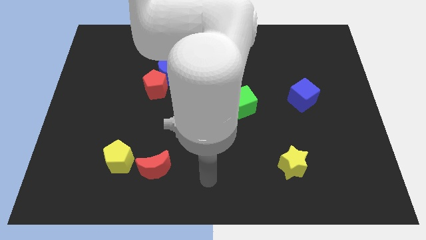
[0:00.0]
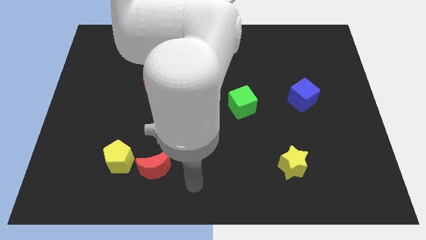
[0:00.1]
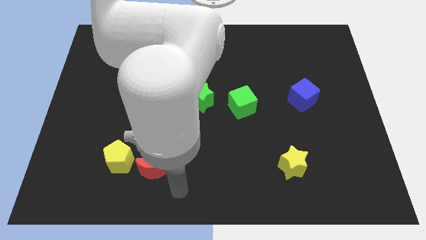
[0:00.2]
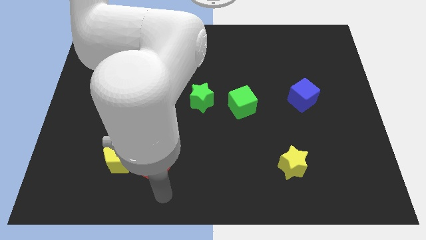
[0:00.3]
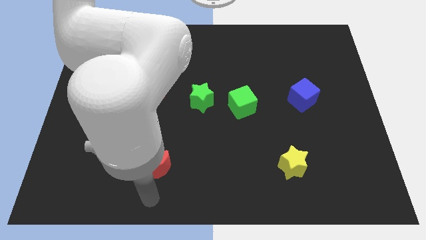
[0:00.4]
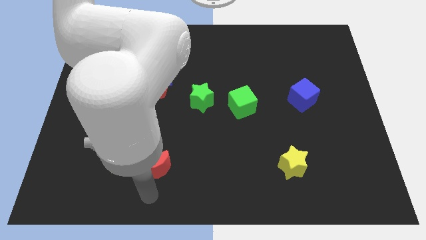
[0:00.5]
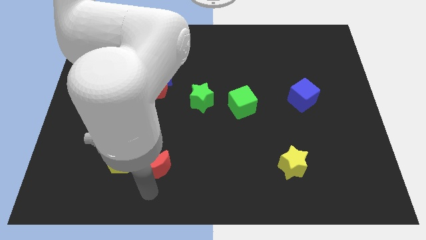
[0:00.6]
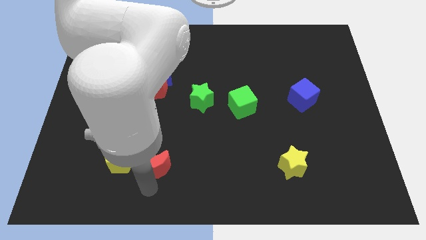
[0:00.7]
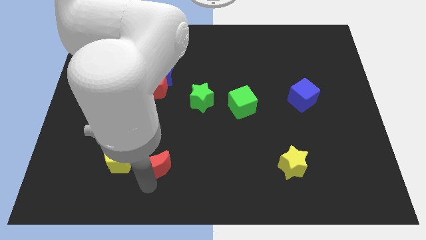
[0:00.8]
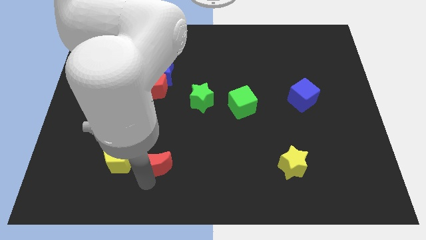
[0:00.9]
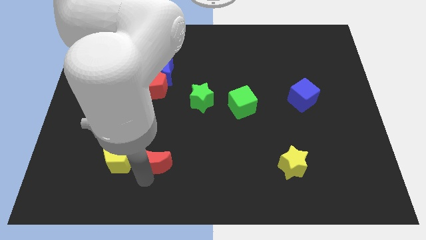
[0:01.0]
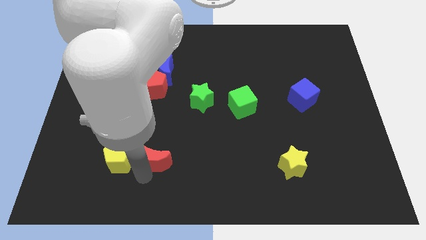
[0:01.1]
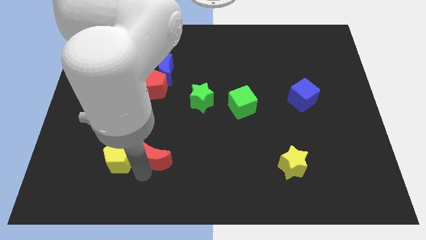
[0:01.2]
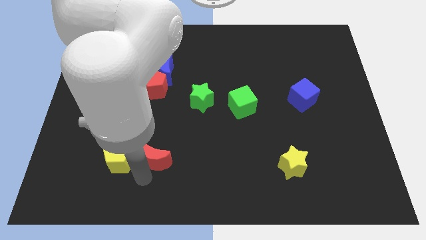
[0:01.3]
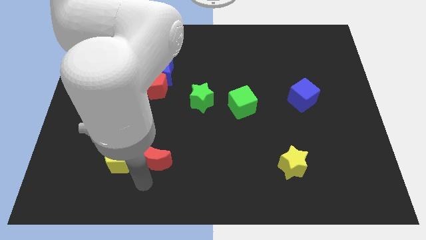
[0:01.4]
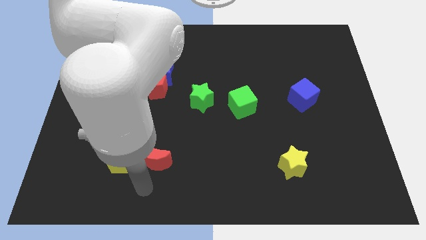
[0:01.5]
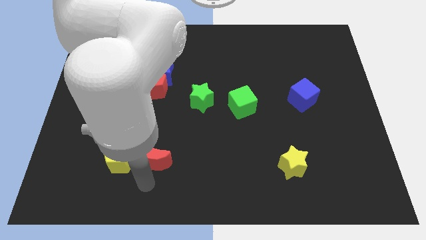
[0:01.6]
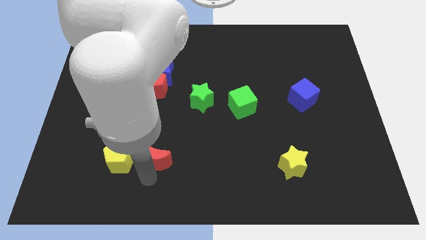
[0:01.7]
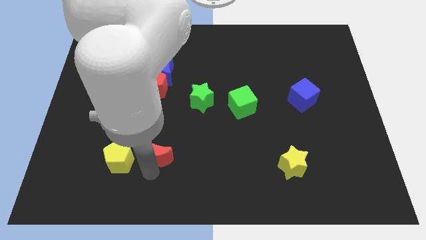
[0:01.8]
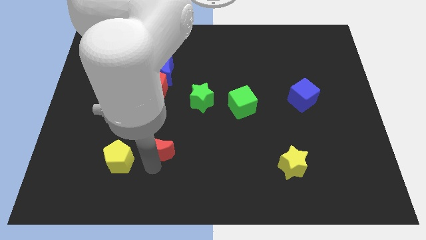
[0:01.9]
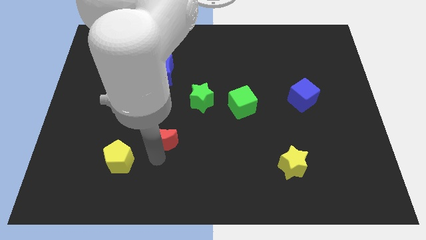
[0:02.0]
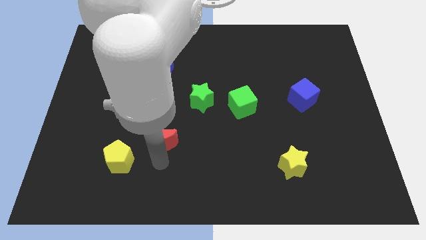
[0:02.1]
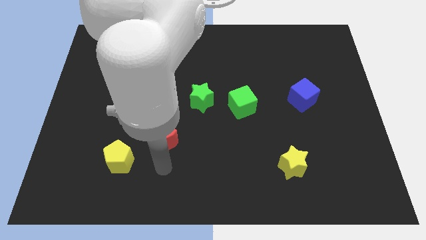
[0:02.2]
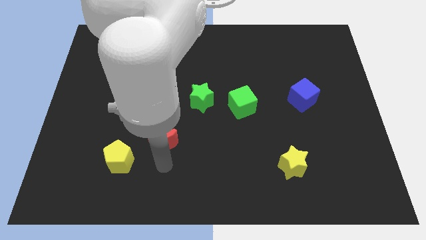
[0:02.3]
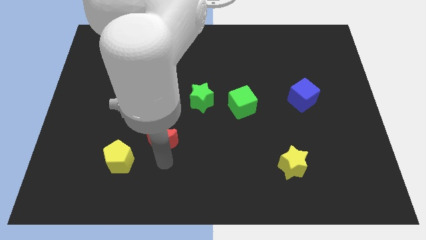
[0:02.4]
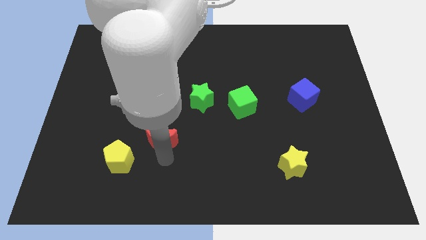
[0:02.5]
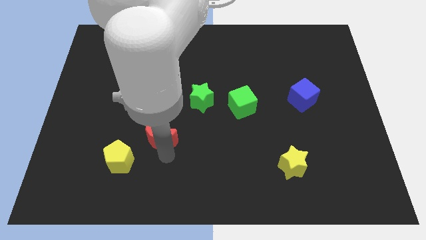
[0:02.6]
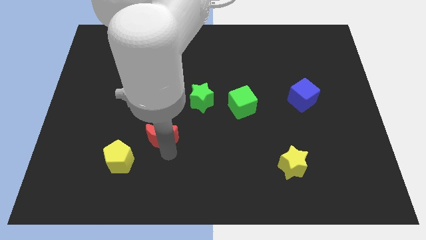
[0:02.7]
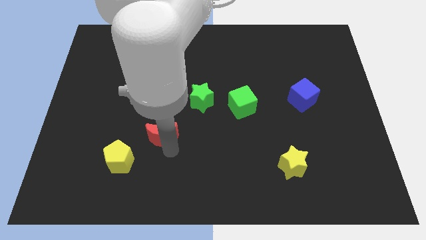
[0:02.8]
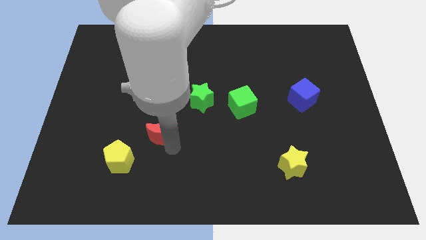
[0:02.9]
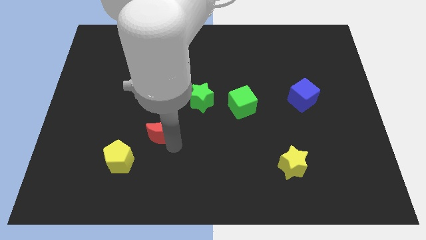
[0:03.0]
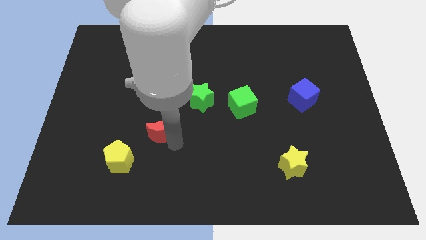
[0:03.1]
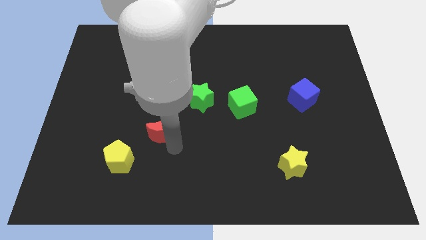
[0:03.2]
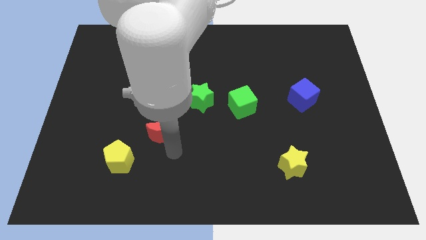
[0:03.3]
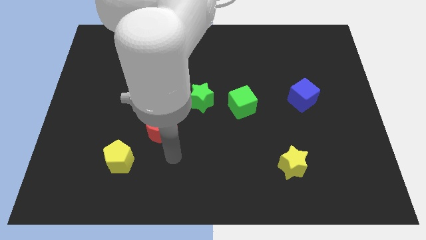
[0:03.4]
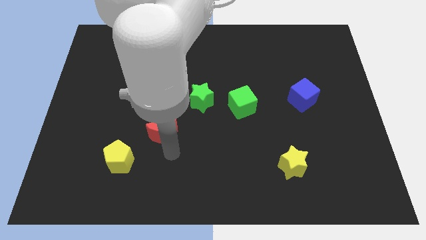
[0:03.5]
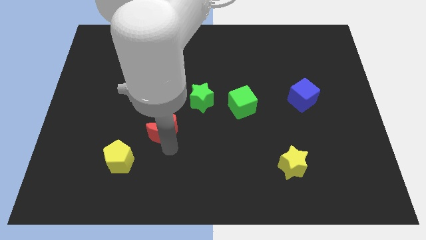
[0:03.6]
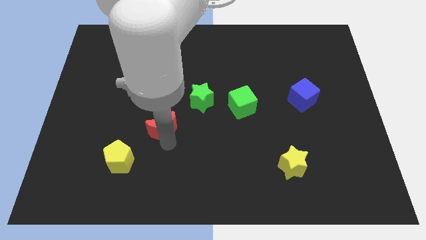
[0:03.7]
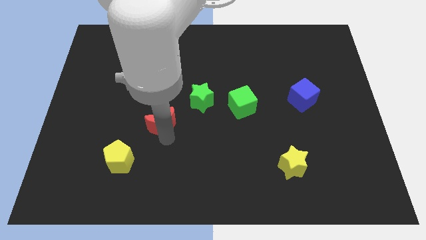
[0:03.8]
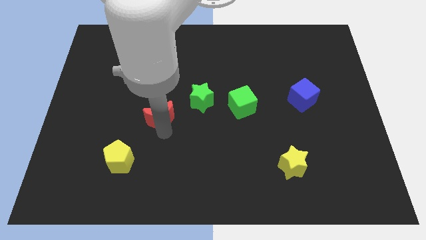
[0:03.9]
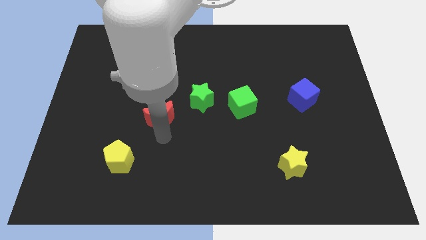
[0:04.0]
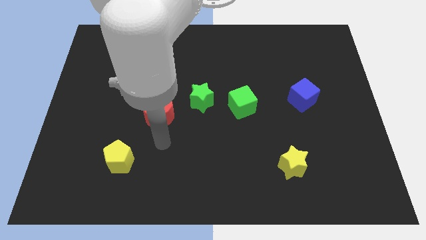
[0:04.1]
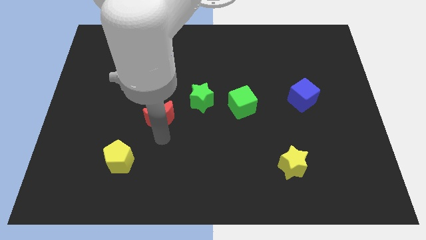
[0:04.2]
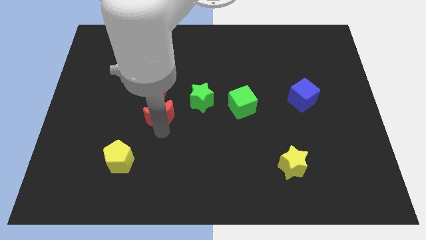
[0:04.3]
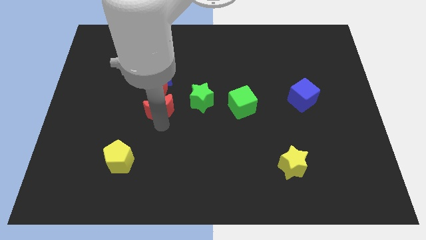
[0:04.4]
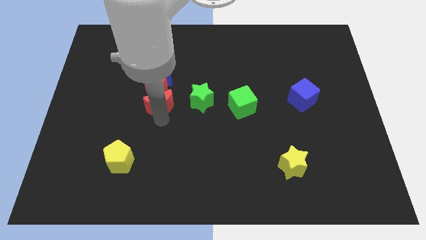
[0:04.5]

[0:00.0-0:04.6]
move the red moon close to the red pentagon

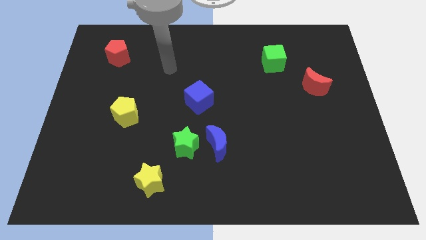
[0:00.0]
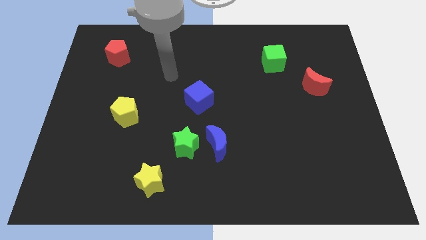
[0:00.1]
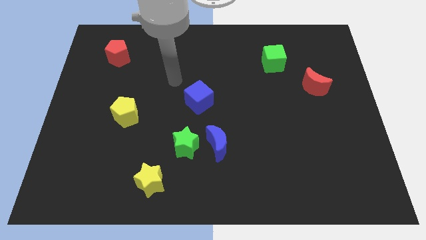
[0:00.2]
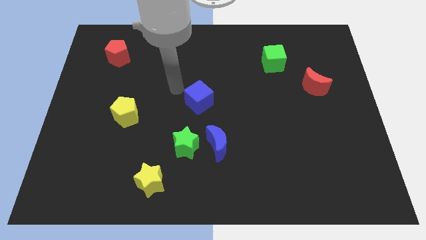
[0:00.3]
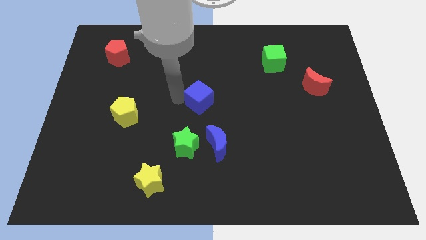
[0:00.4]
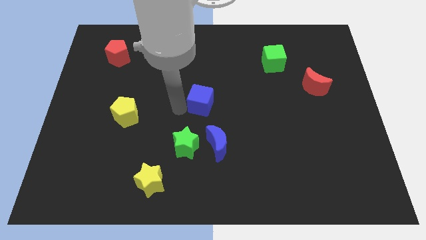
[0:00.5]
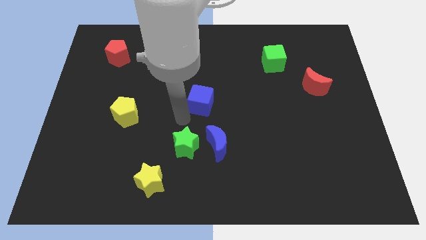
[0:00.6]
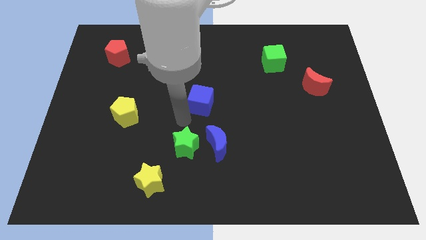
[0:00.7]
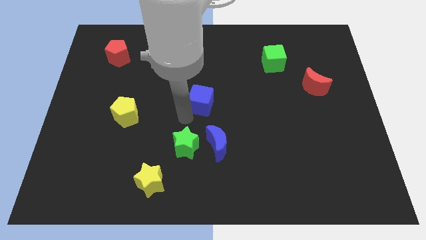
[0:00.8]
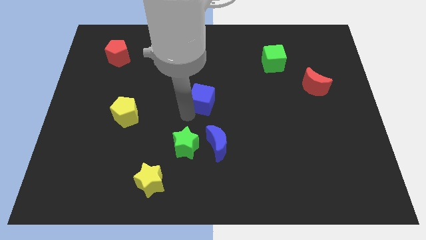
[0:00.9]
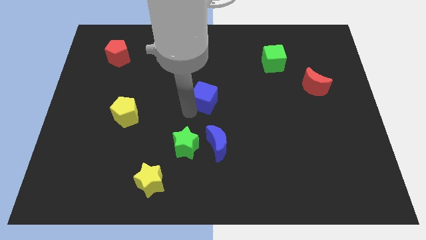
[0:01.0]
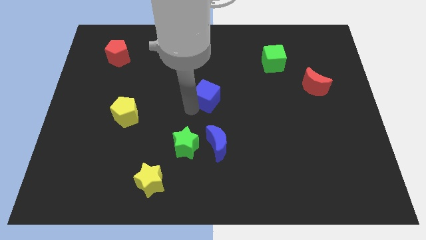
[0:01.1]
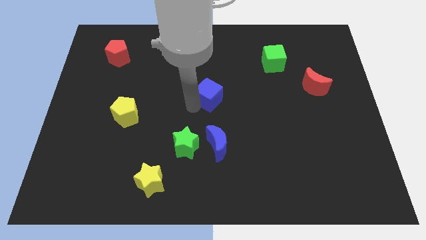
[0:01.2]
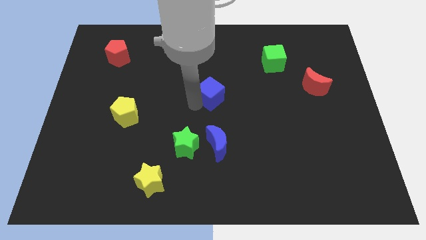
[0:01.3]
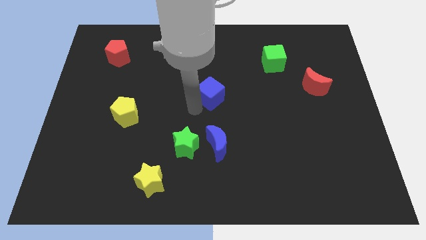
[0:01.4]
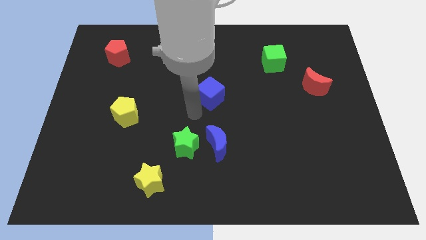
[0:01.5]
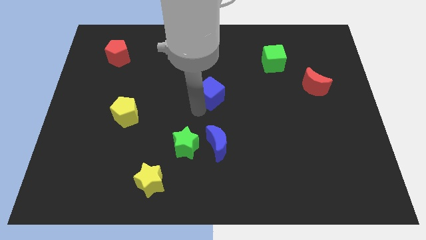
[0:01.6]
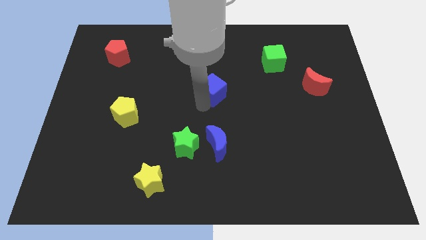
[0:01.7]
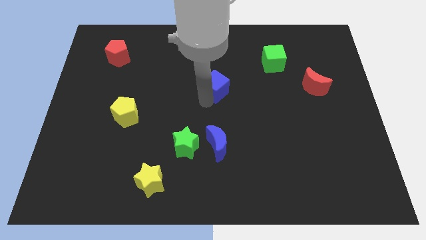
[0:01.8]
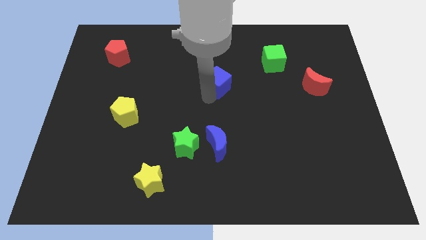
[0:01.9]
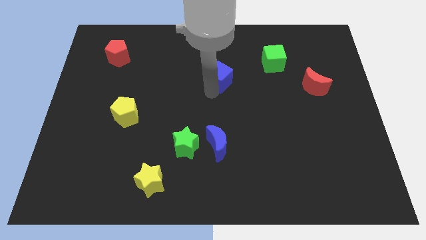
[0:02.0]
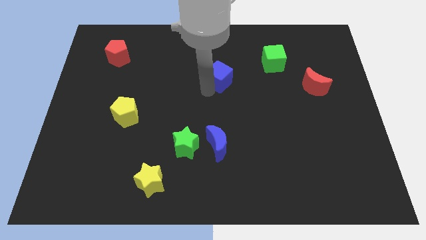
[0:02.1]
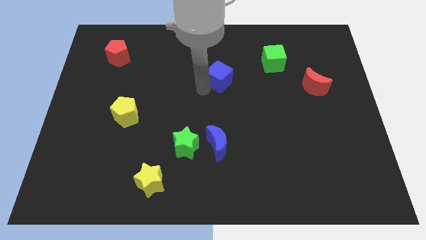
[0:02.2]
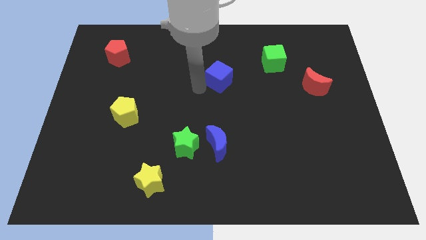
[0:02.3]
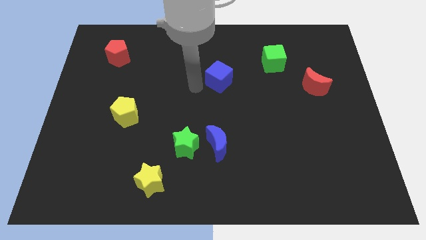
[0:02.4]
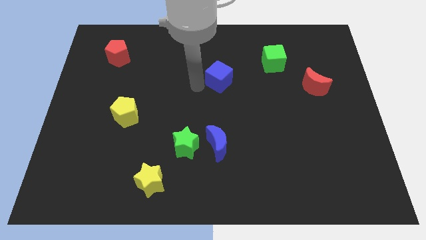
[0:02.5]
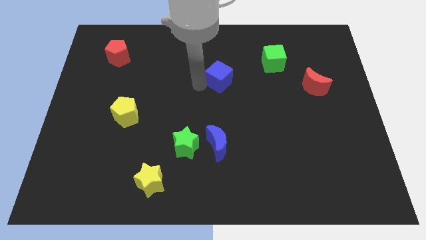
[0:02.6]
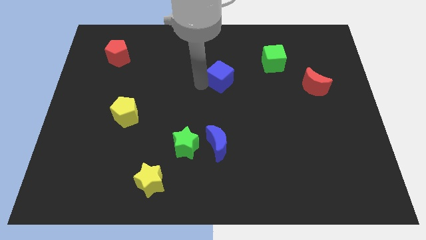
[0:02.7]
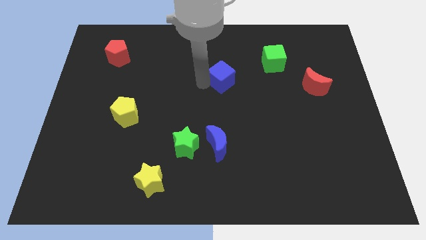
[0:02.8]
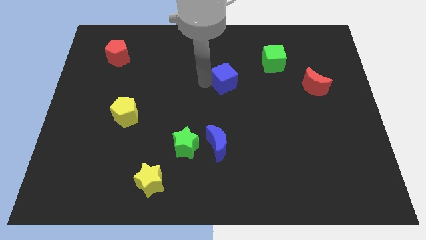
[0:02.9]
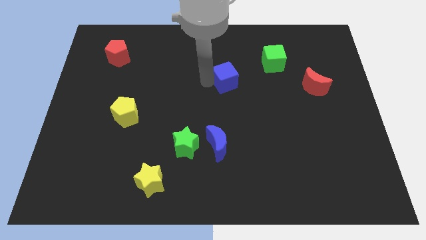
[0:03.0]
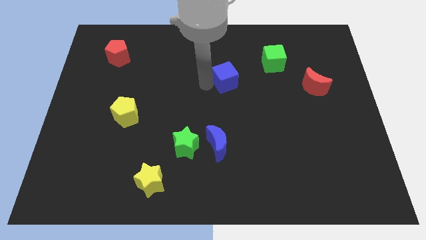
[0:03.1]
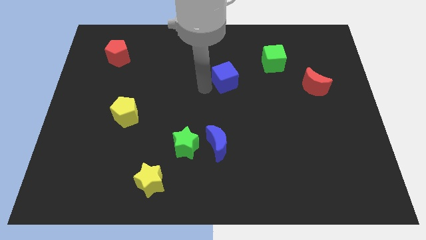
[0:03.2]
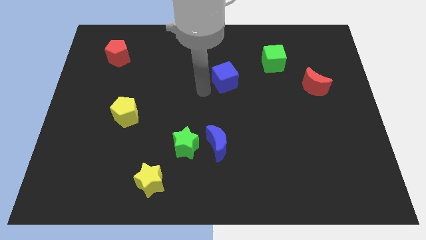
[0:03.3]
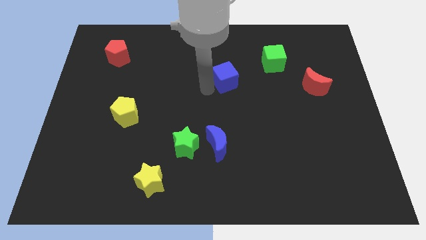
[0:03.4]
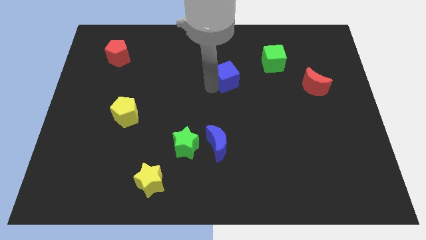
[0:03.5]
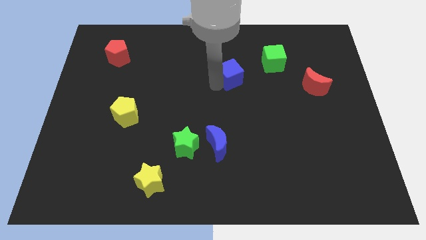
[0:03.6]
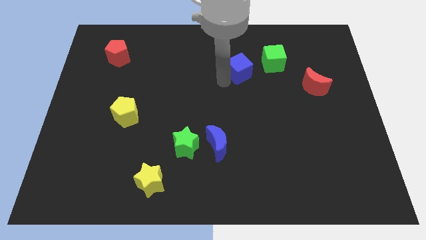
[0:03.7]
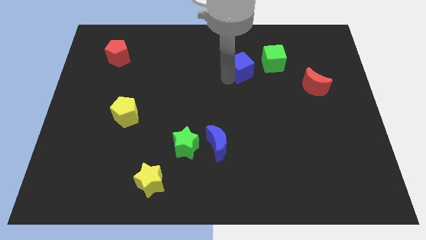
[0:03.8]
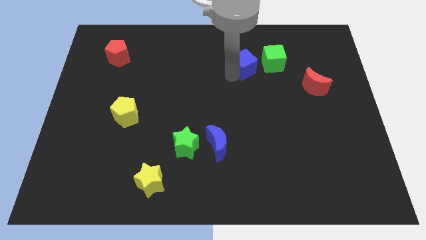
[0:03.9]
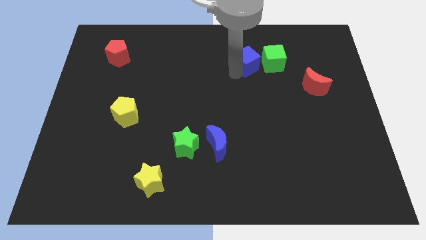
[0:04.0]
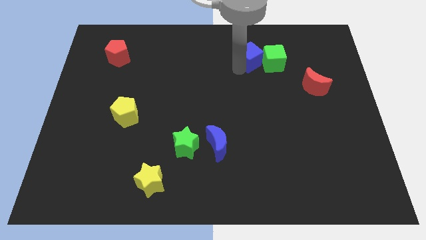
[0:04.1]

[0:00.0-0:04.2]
move the blue cube to the green cube
